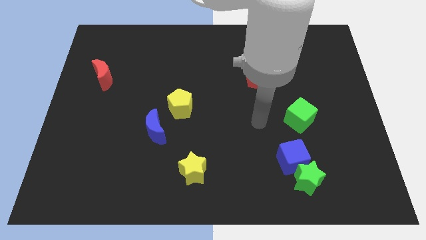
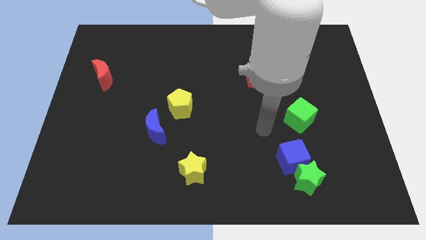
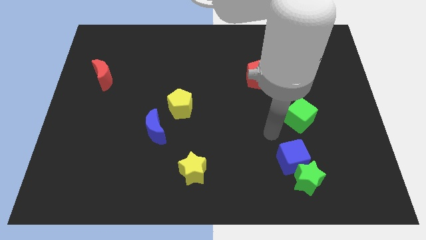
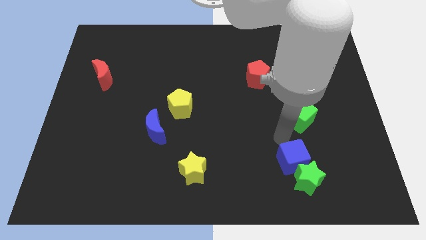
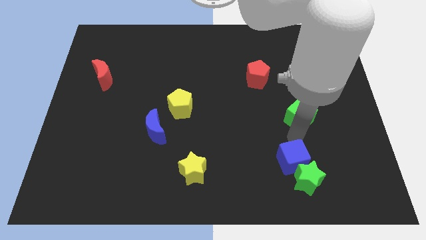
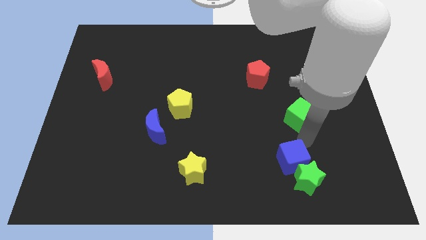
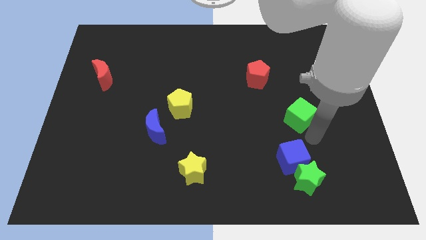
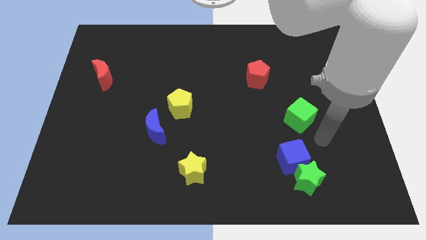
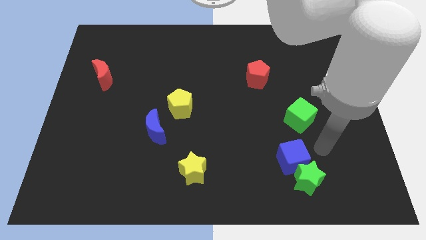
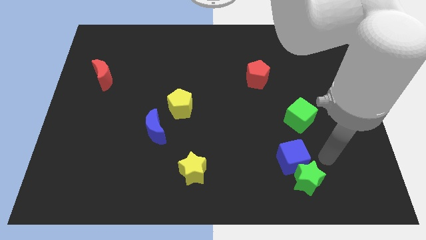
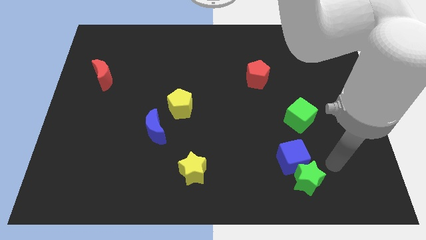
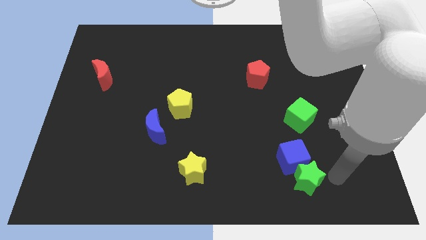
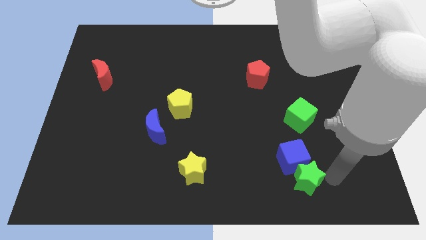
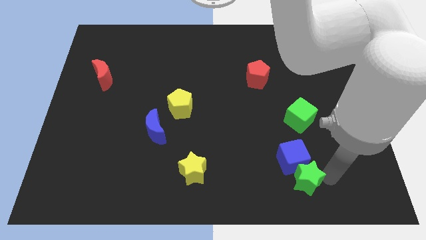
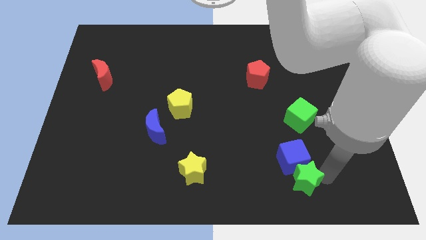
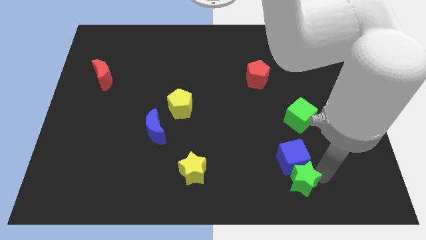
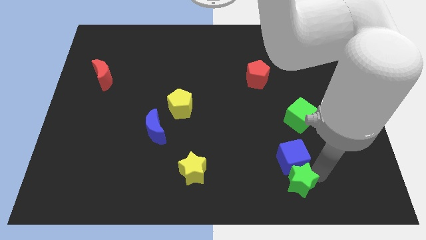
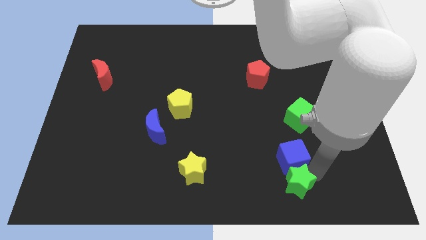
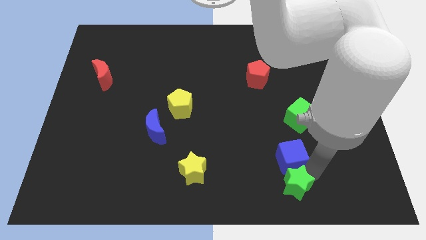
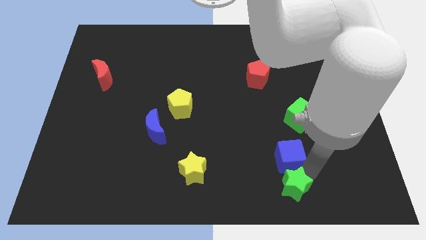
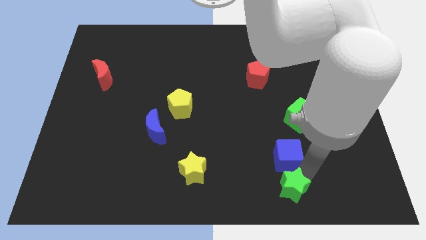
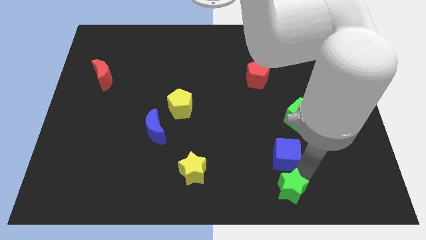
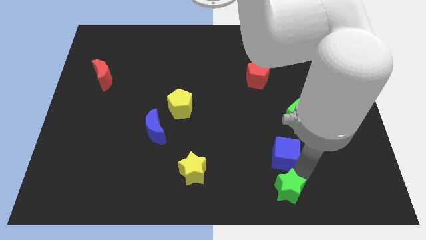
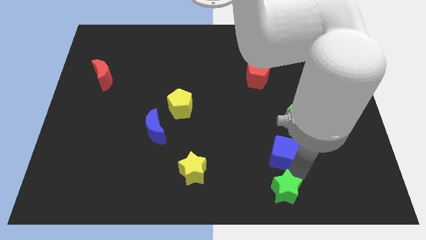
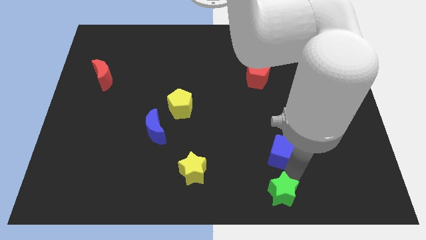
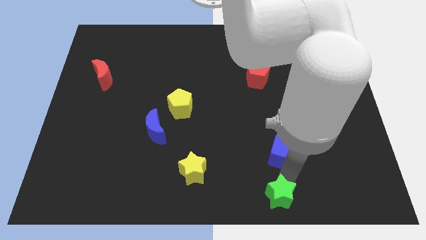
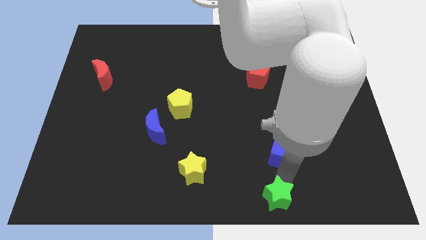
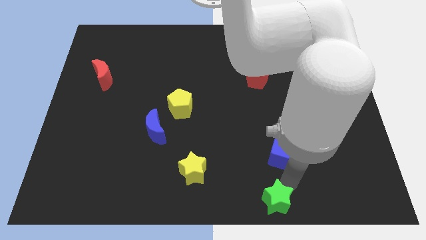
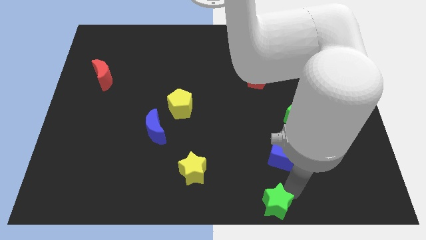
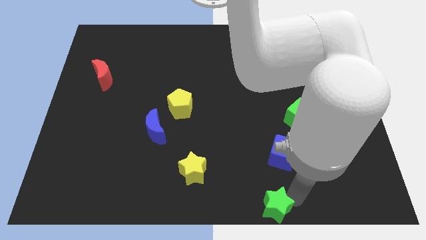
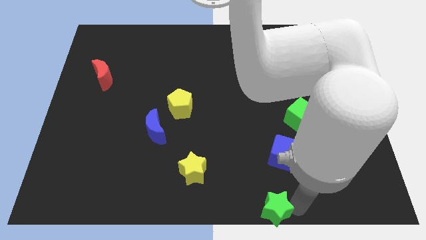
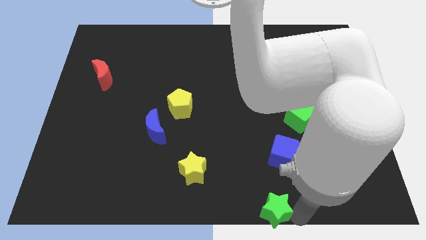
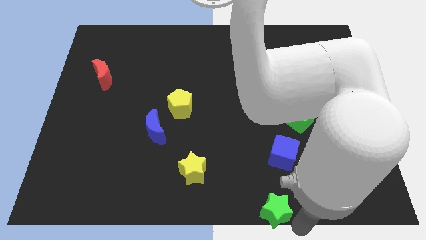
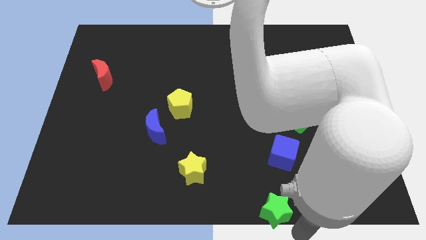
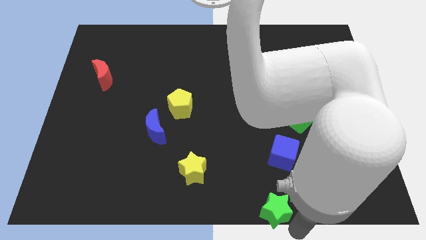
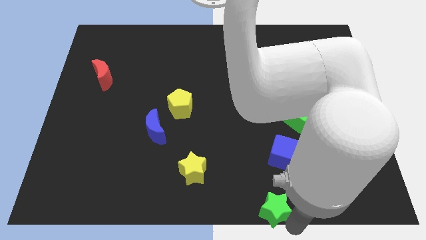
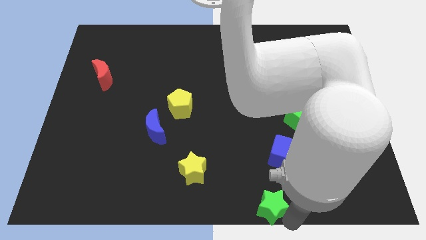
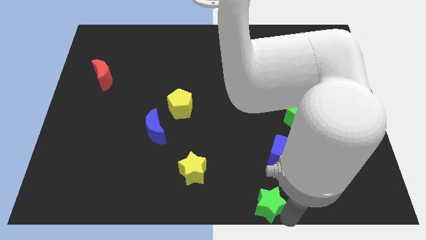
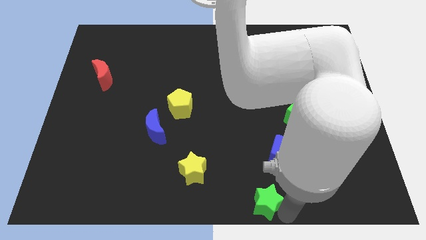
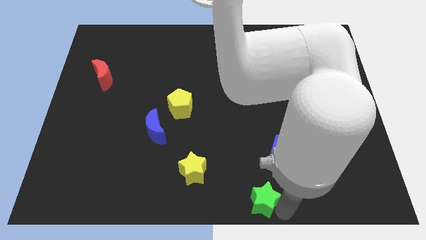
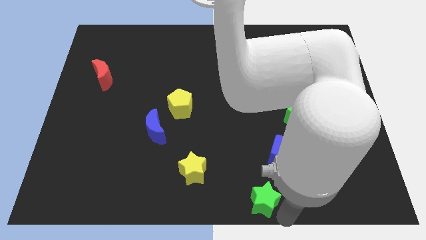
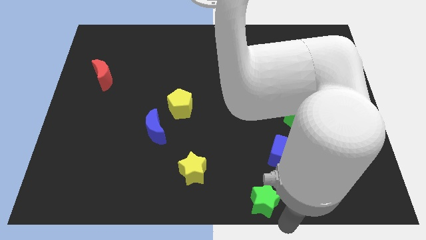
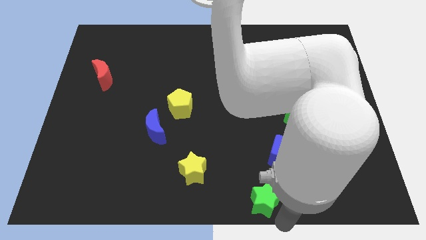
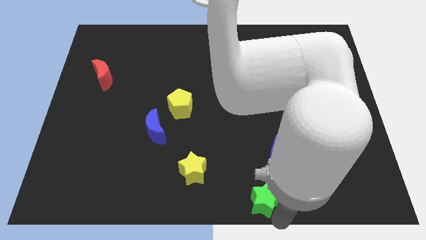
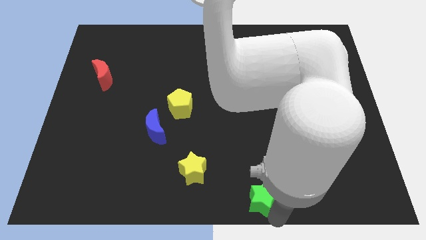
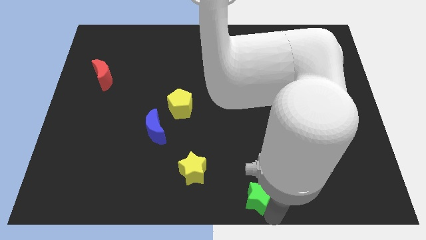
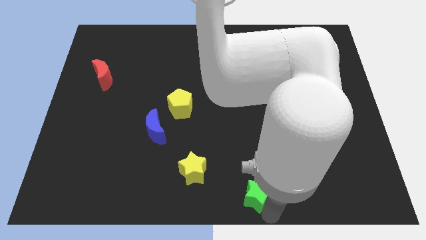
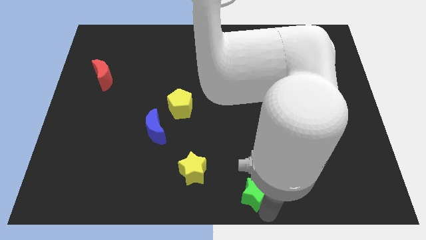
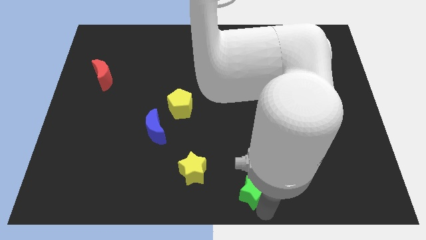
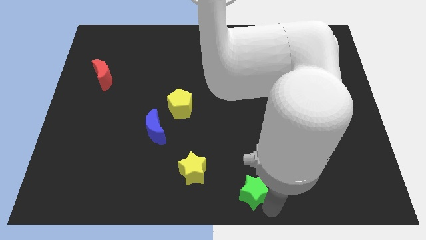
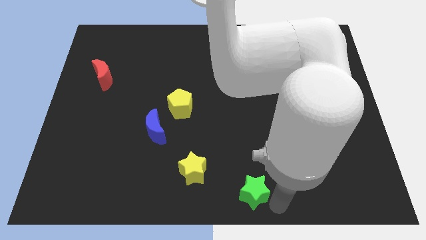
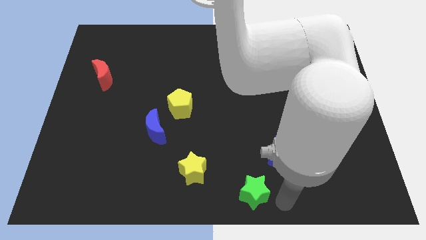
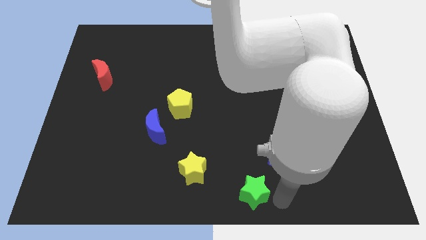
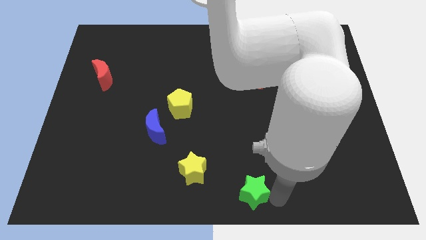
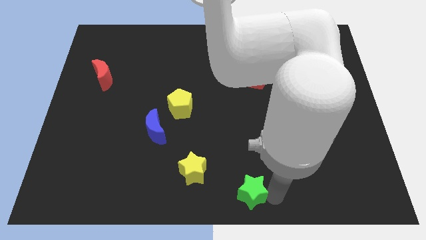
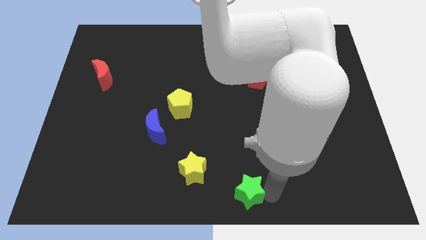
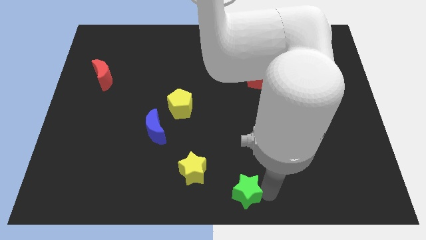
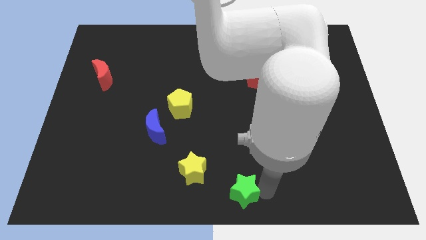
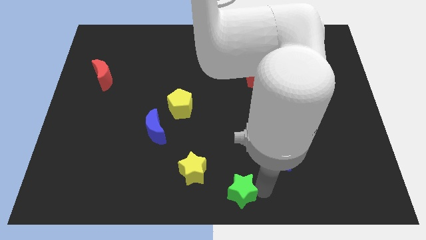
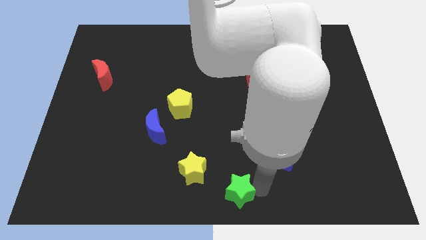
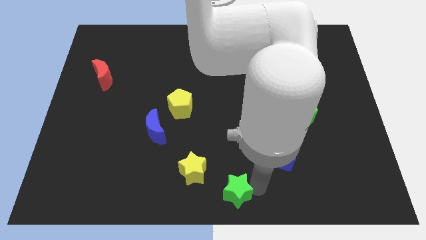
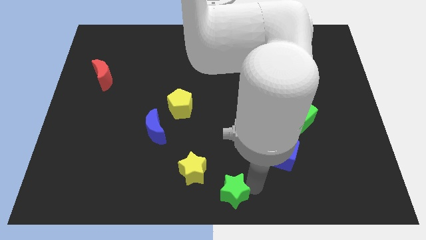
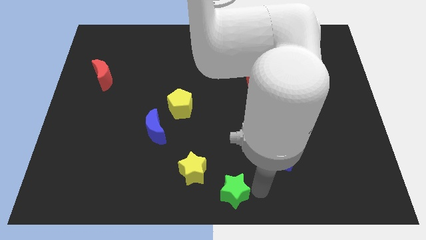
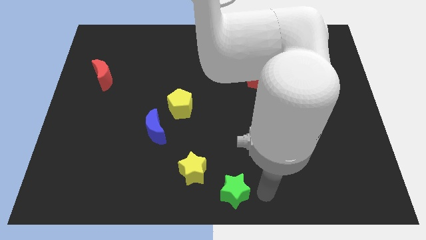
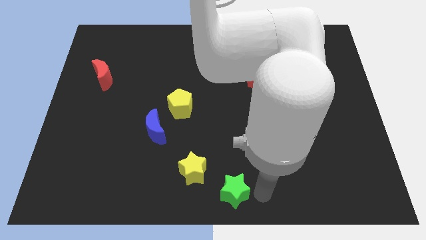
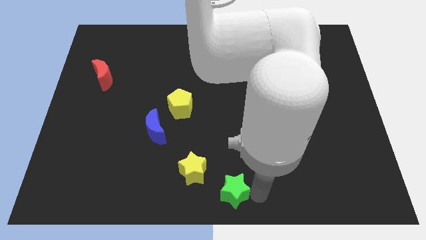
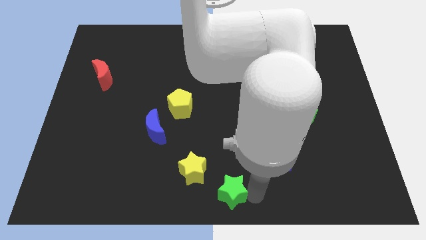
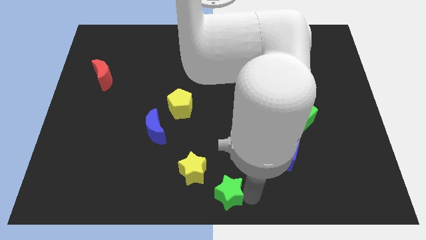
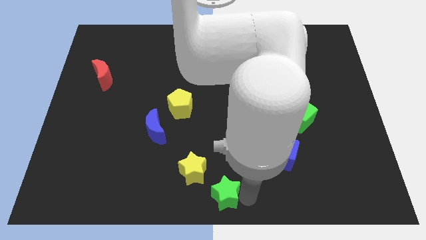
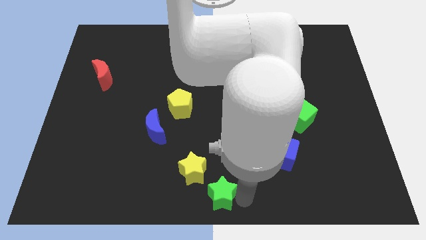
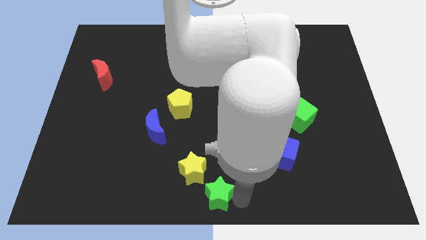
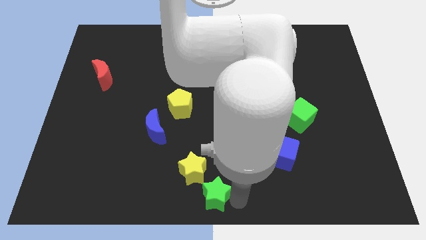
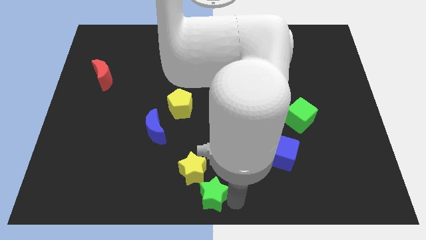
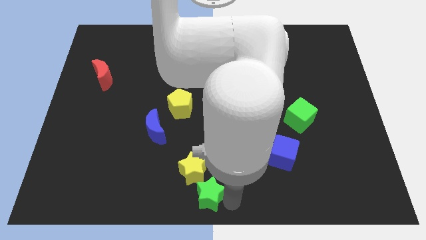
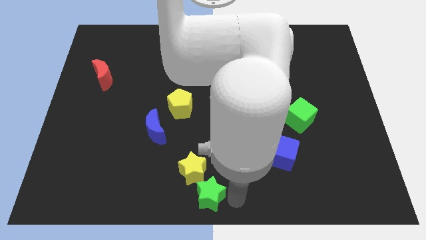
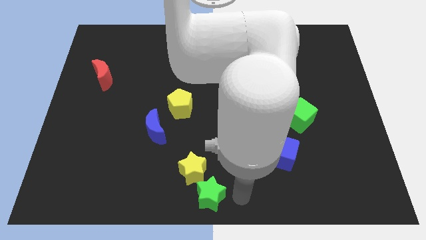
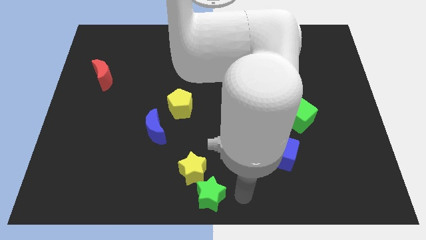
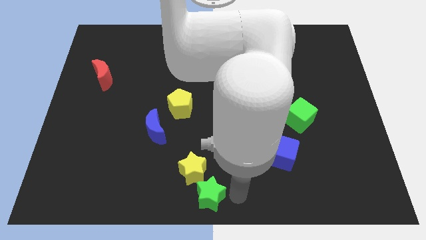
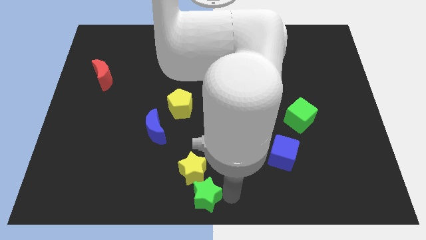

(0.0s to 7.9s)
push the green star left

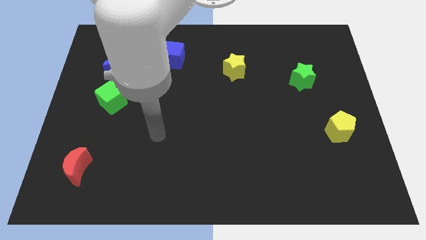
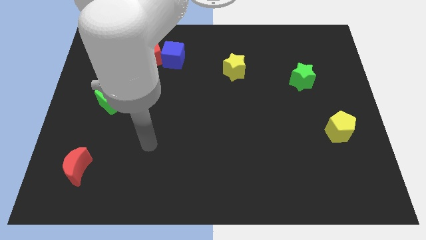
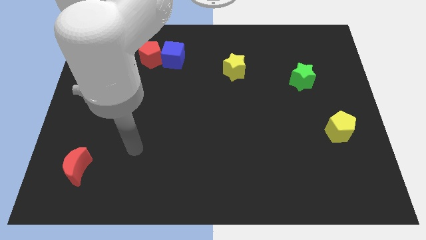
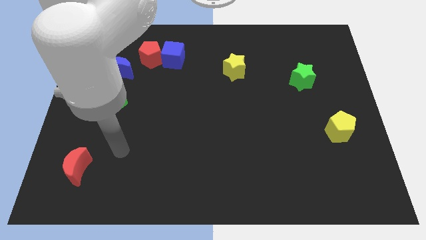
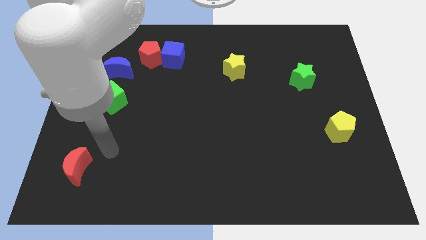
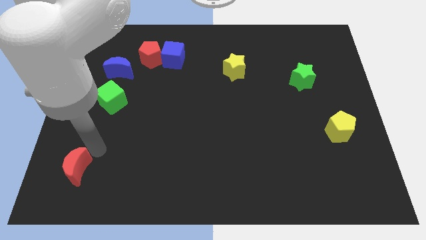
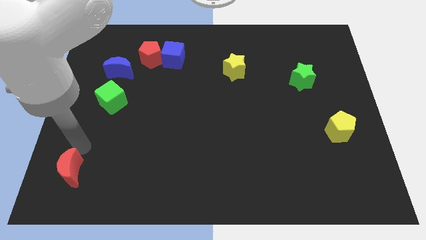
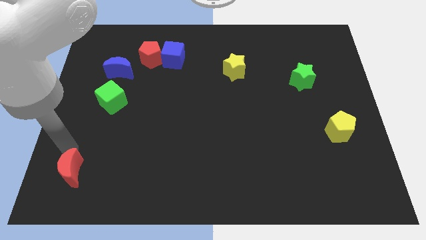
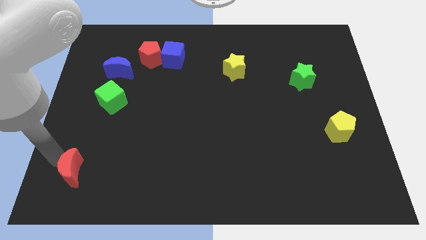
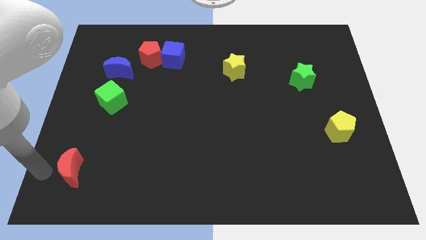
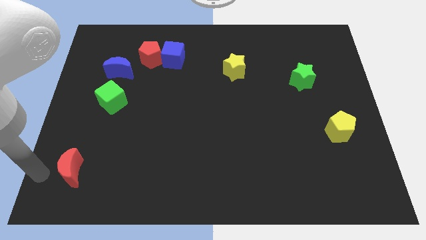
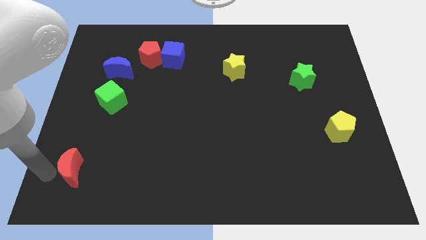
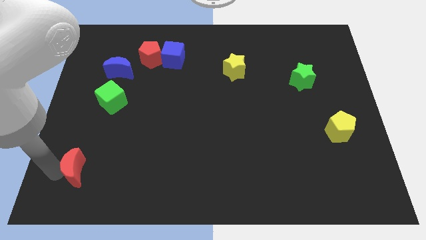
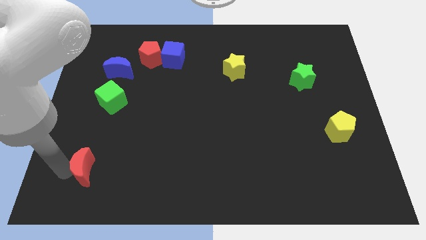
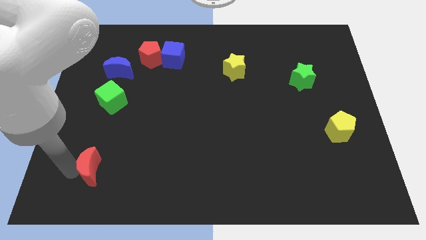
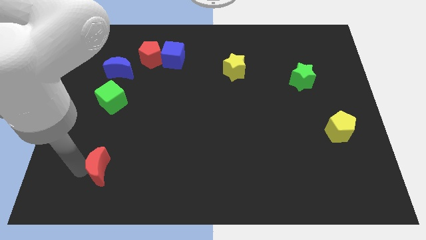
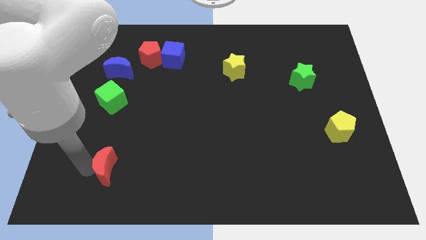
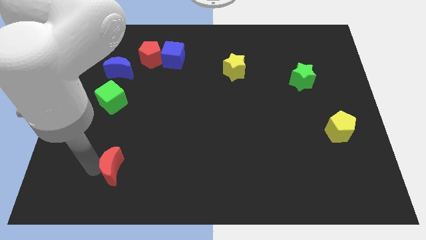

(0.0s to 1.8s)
slide the red moon a bit to the right
